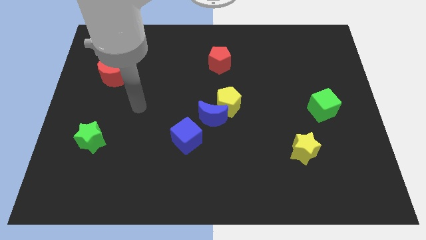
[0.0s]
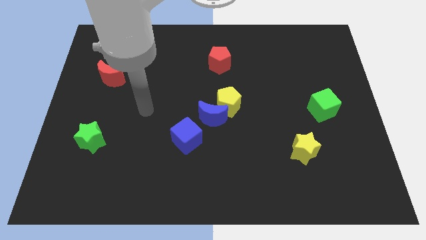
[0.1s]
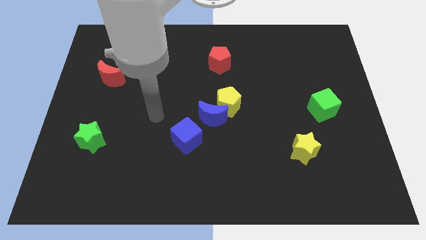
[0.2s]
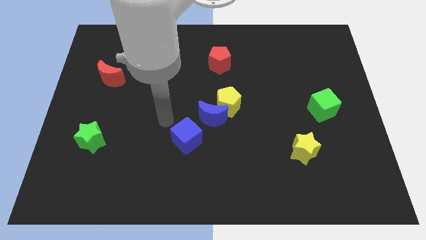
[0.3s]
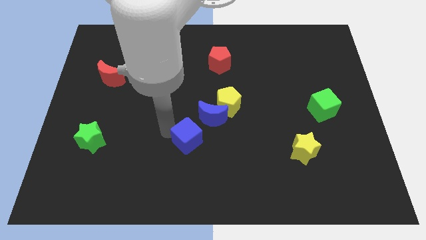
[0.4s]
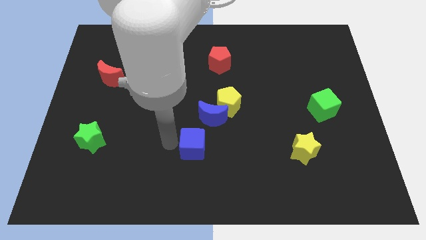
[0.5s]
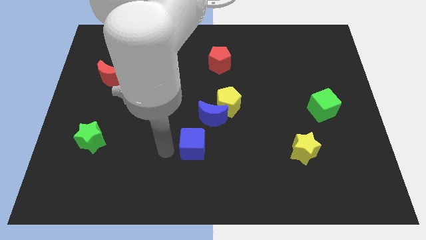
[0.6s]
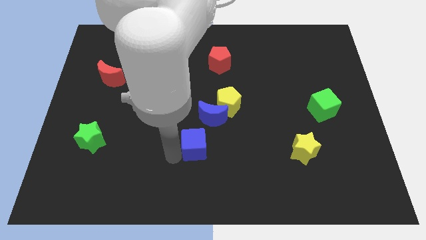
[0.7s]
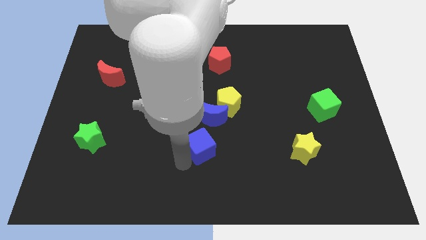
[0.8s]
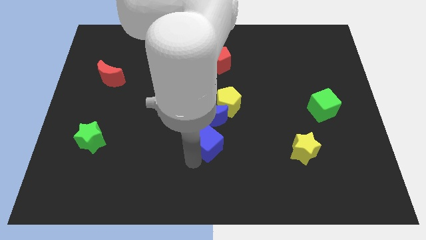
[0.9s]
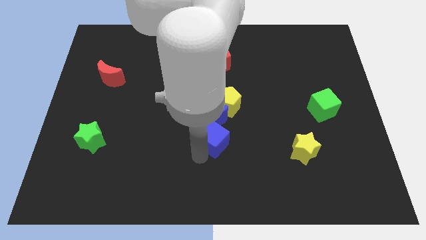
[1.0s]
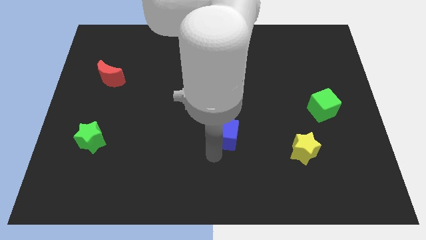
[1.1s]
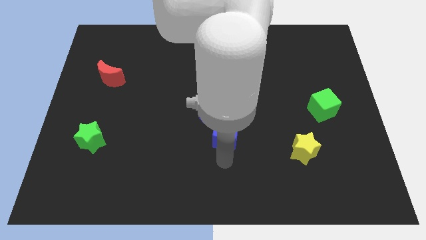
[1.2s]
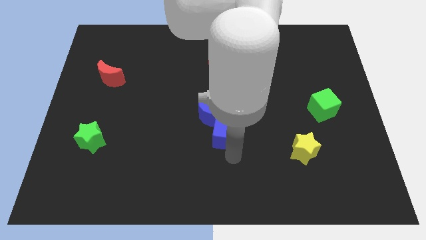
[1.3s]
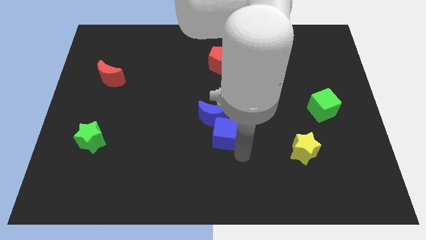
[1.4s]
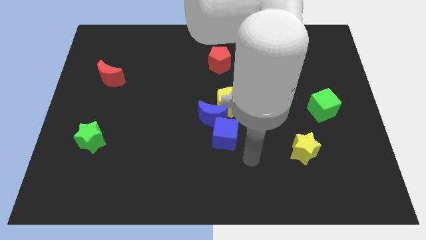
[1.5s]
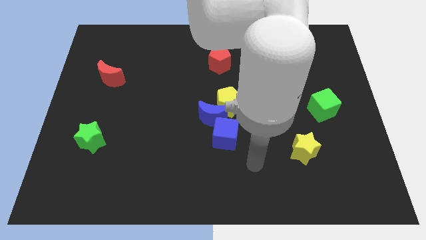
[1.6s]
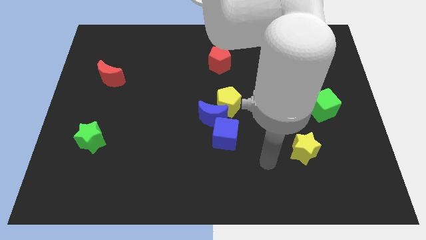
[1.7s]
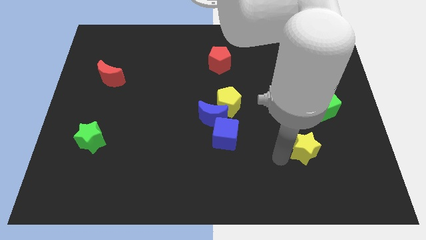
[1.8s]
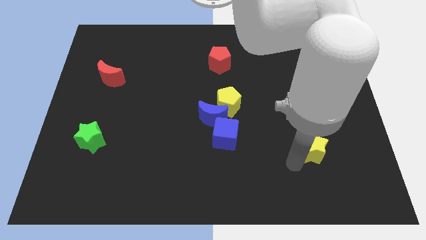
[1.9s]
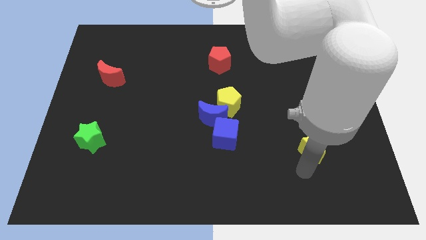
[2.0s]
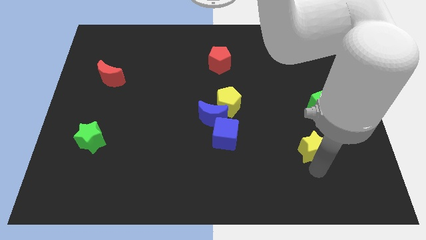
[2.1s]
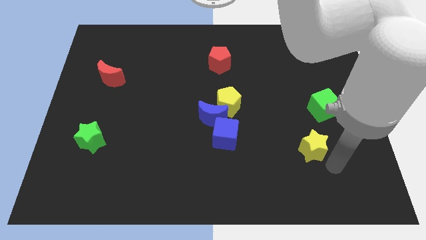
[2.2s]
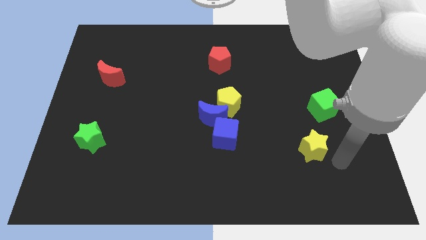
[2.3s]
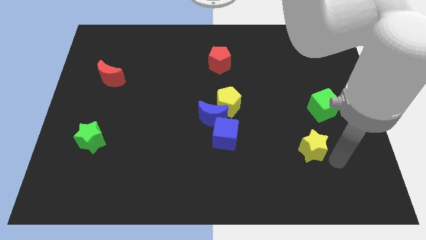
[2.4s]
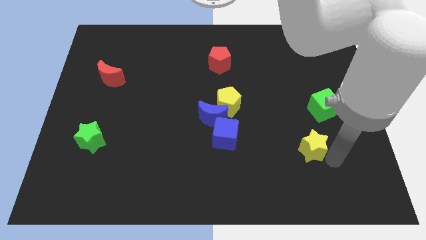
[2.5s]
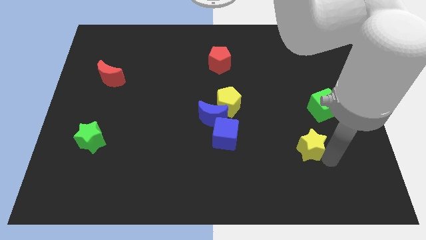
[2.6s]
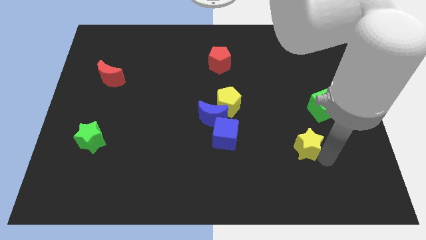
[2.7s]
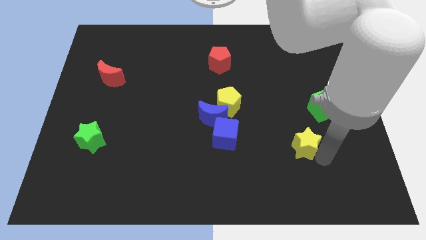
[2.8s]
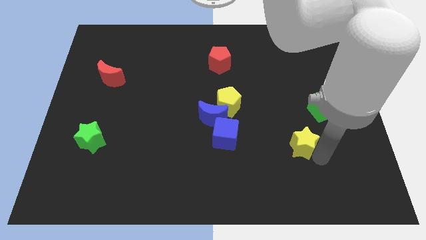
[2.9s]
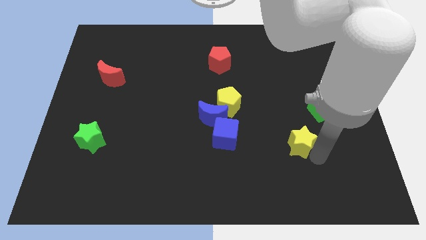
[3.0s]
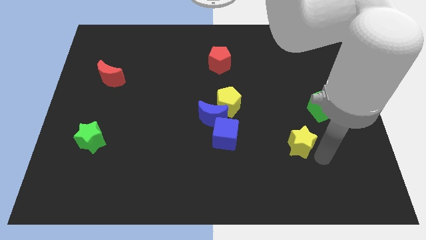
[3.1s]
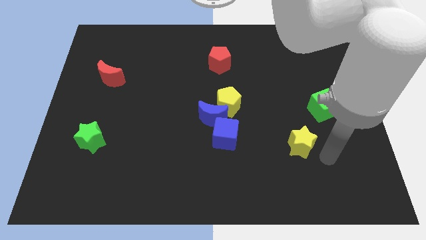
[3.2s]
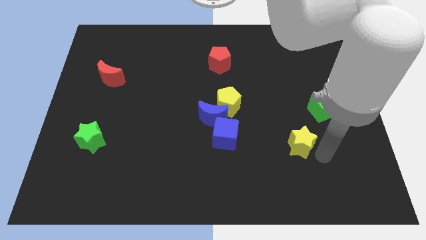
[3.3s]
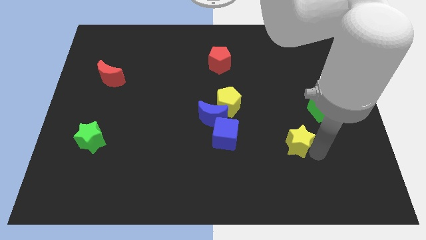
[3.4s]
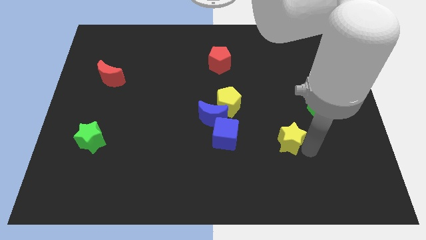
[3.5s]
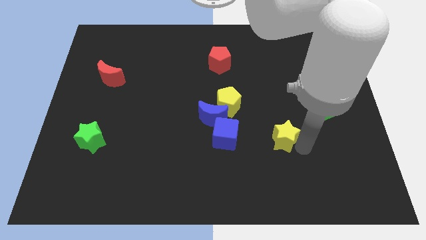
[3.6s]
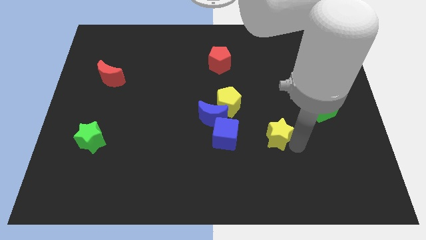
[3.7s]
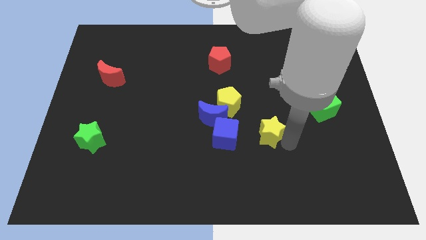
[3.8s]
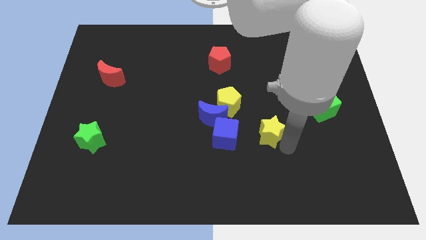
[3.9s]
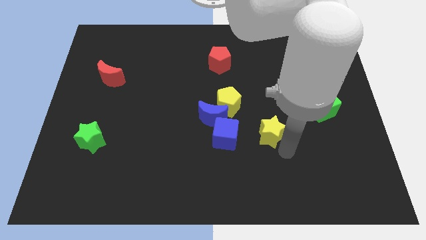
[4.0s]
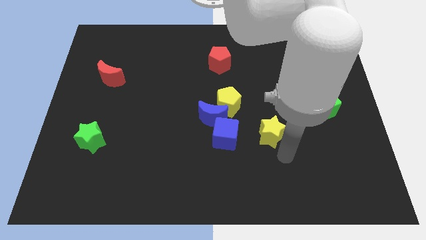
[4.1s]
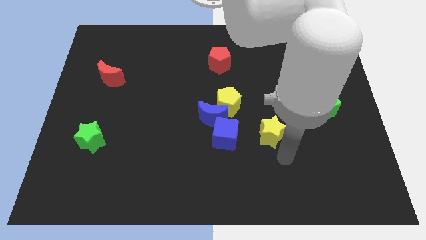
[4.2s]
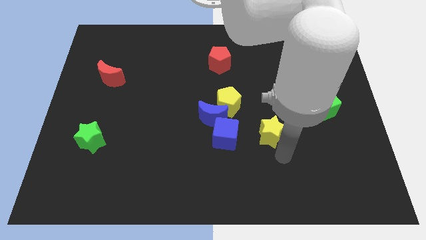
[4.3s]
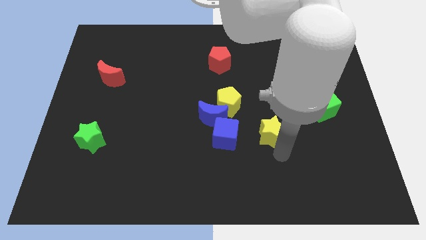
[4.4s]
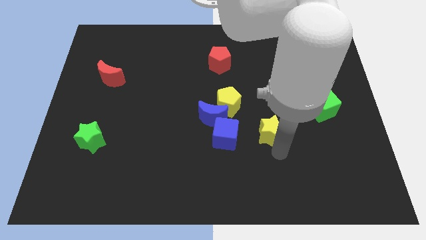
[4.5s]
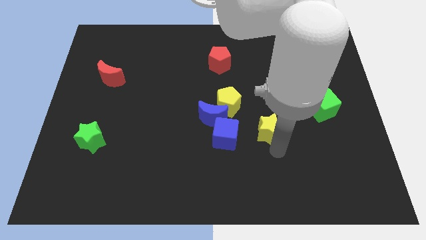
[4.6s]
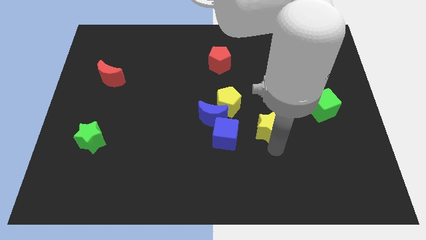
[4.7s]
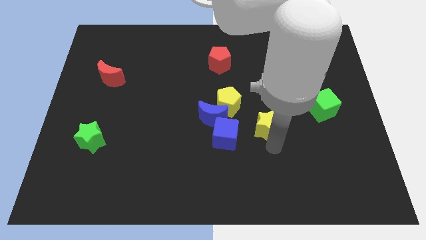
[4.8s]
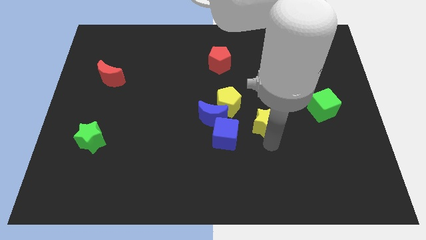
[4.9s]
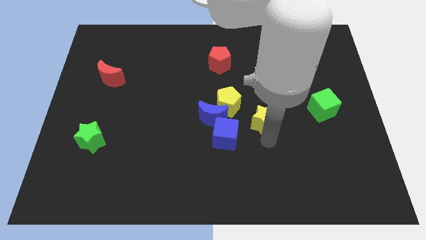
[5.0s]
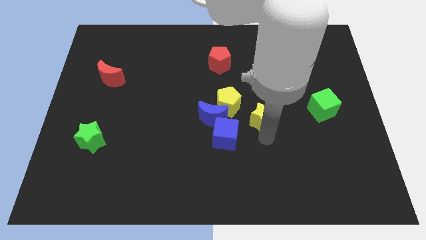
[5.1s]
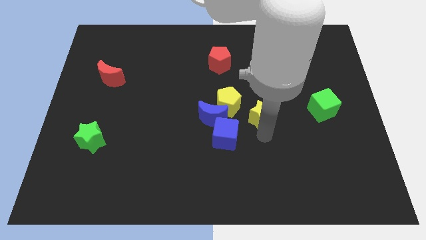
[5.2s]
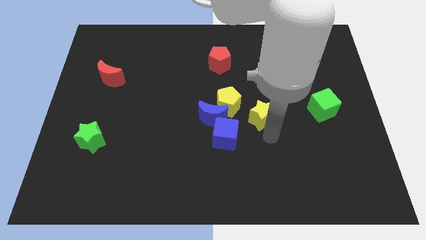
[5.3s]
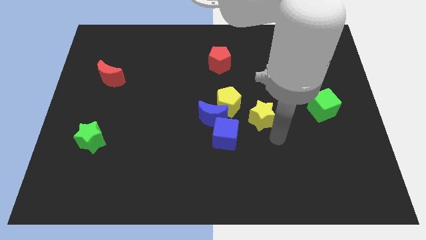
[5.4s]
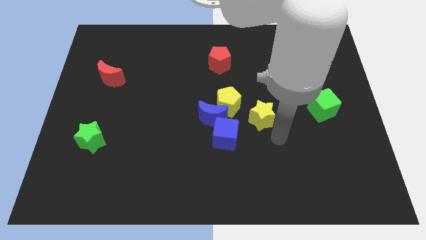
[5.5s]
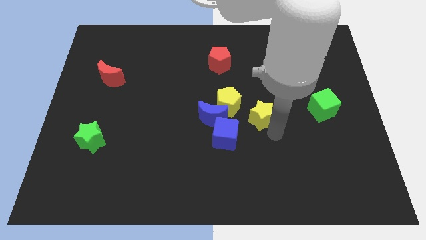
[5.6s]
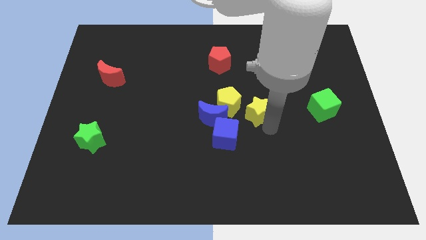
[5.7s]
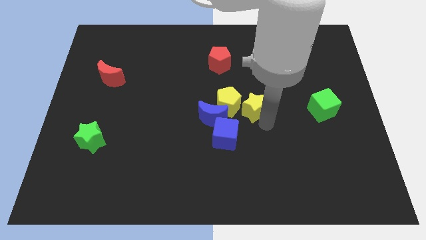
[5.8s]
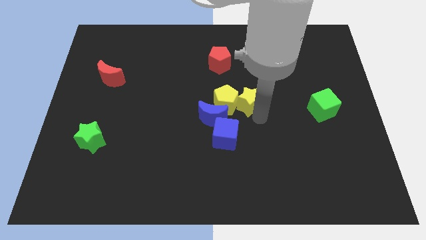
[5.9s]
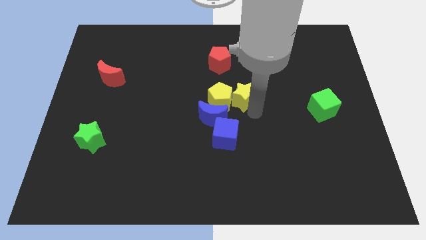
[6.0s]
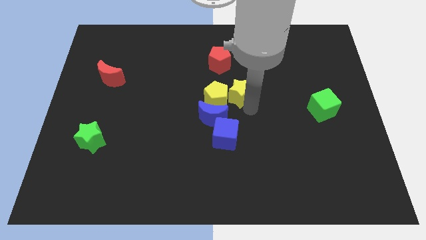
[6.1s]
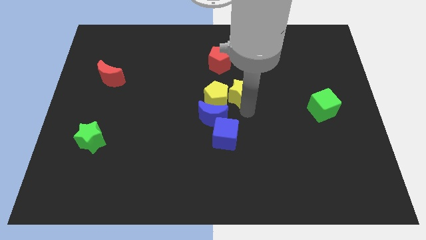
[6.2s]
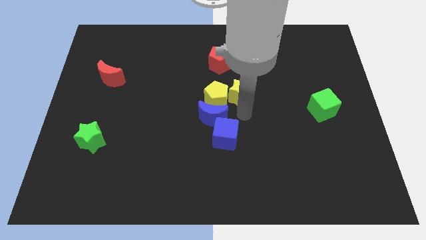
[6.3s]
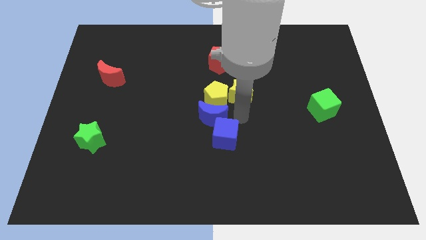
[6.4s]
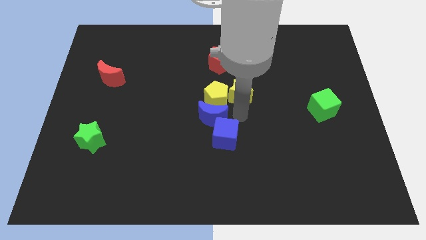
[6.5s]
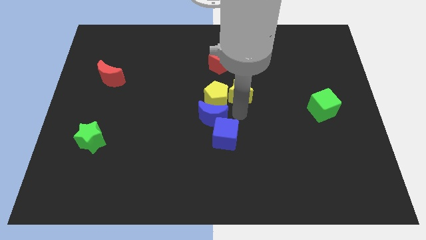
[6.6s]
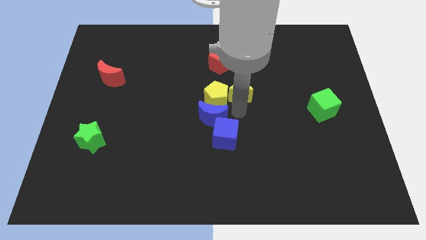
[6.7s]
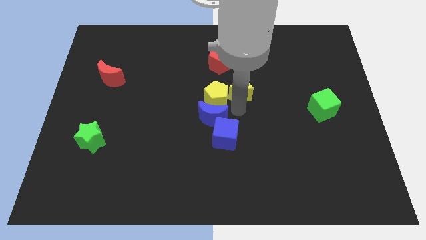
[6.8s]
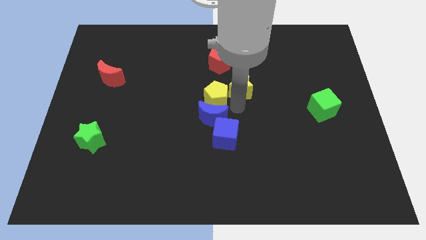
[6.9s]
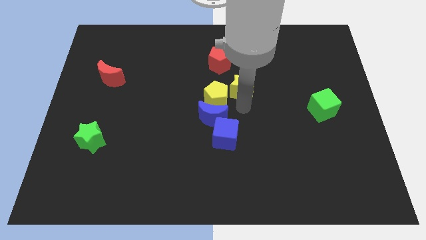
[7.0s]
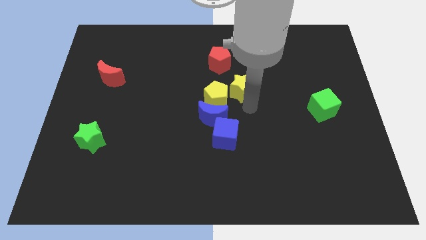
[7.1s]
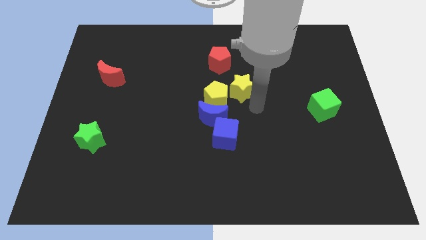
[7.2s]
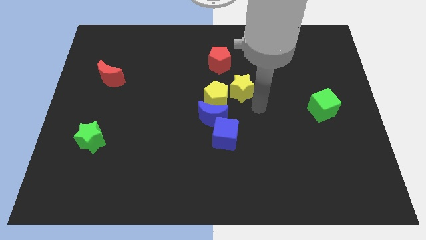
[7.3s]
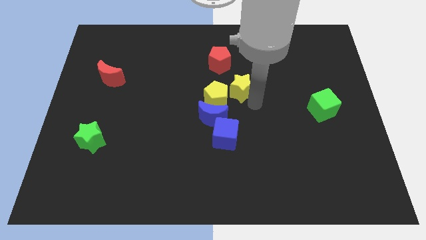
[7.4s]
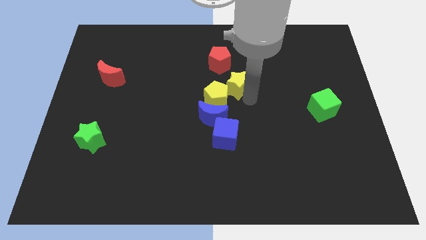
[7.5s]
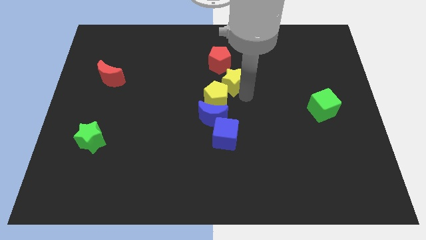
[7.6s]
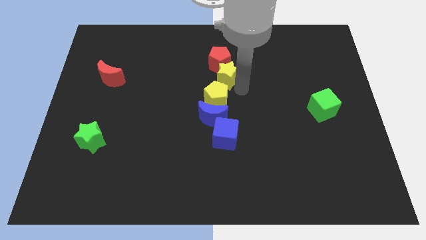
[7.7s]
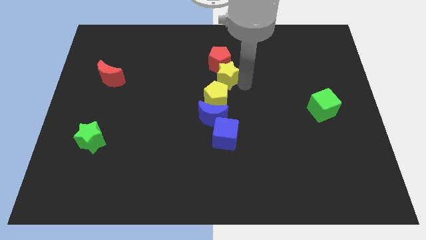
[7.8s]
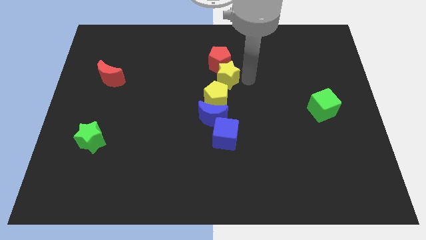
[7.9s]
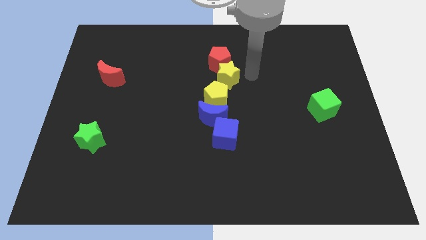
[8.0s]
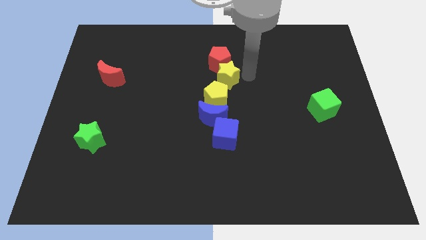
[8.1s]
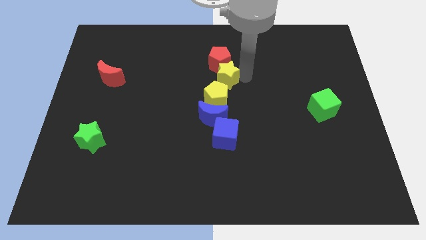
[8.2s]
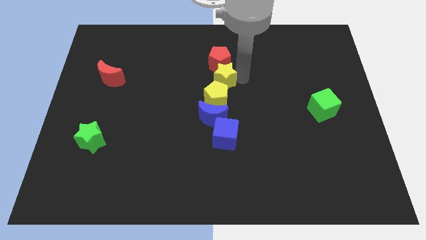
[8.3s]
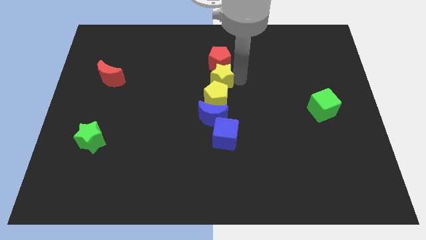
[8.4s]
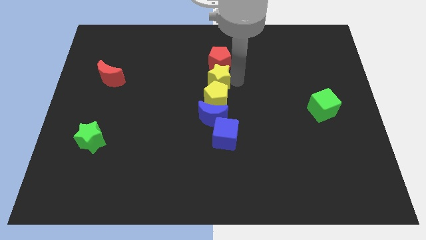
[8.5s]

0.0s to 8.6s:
move the yellow star diagonally up and to the left of the yellow pentagon
